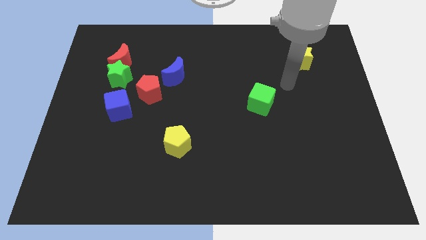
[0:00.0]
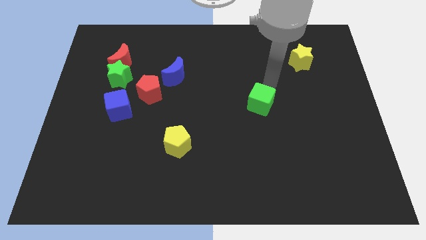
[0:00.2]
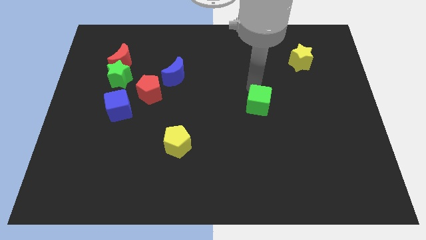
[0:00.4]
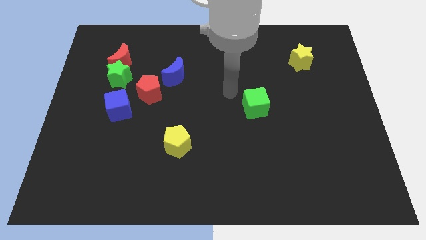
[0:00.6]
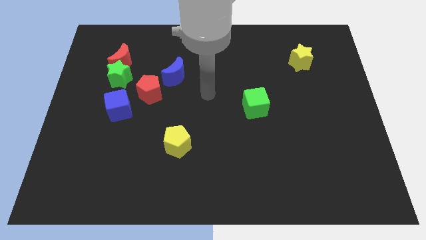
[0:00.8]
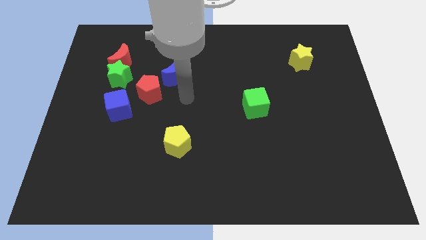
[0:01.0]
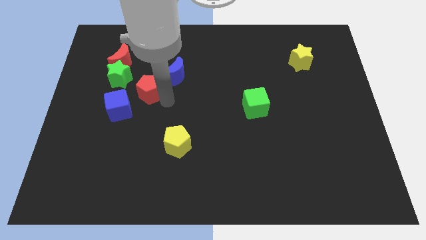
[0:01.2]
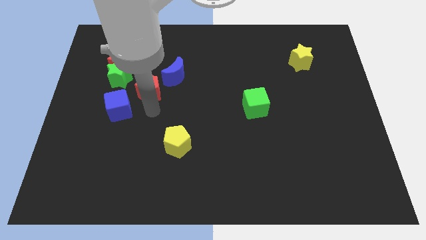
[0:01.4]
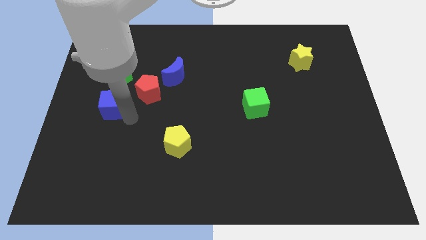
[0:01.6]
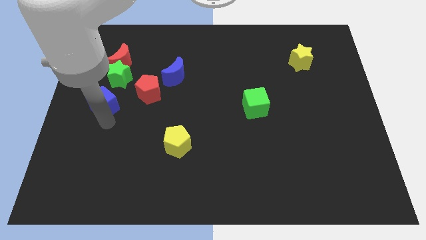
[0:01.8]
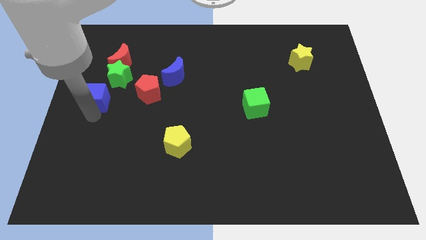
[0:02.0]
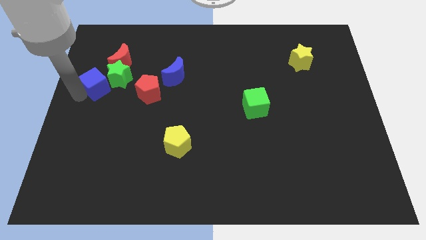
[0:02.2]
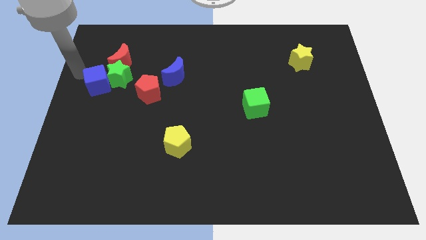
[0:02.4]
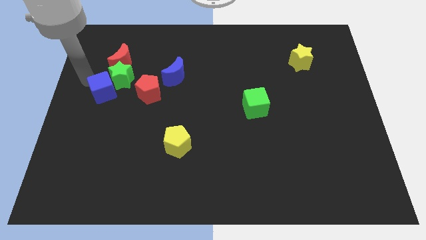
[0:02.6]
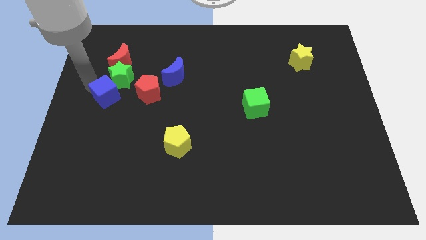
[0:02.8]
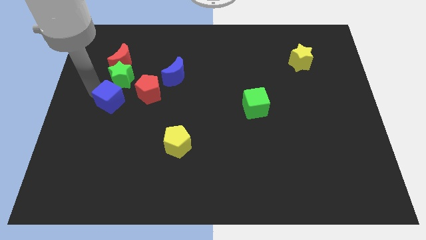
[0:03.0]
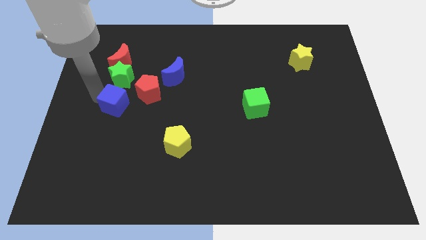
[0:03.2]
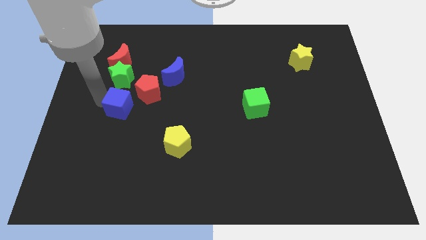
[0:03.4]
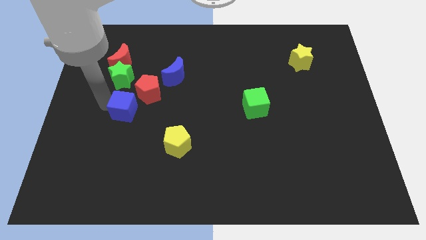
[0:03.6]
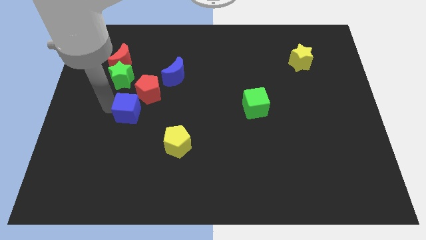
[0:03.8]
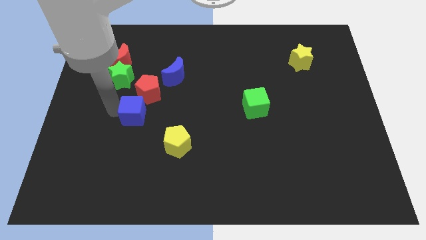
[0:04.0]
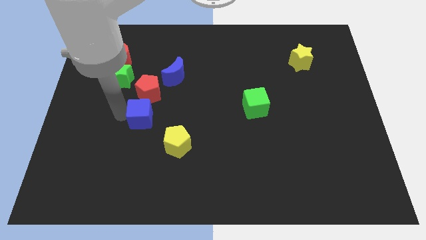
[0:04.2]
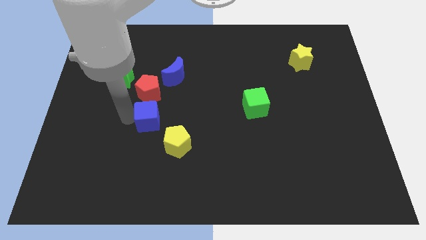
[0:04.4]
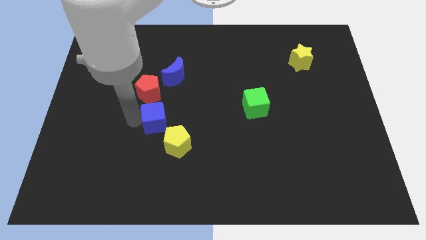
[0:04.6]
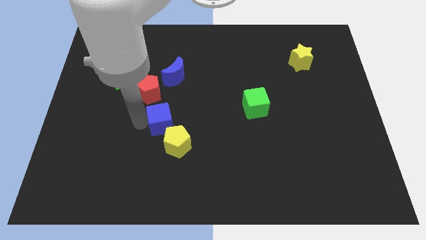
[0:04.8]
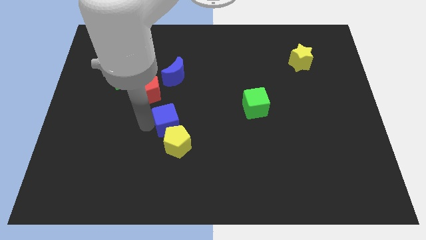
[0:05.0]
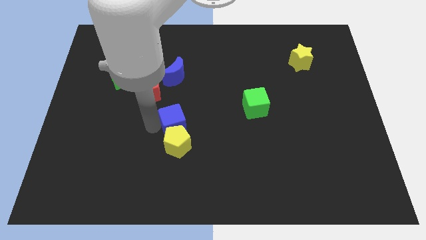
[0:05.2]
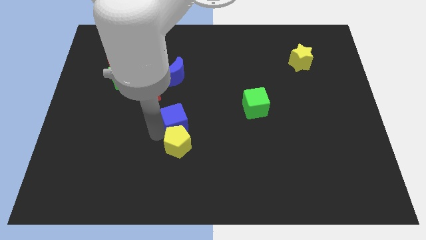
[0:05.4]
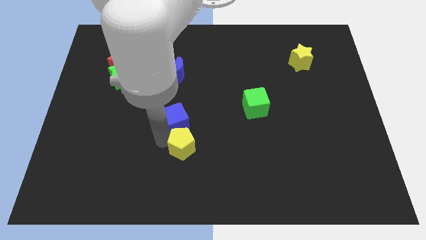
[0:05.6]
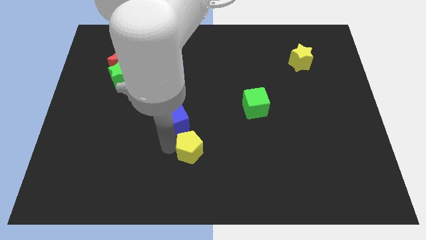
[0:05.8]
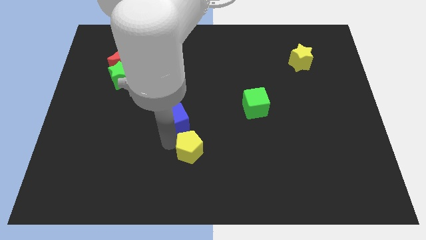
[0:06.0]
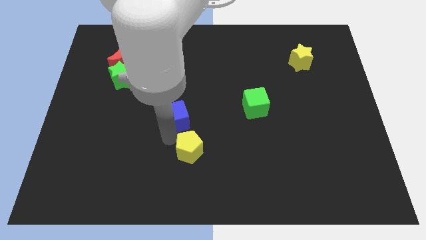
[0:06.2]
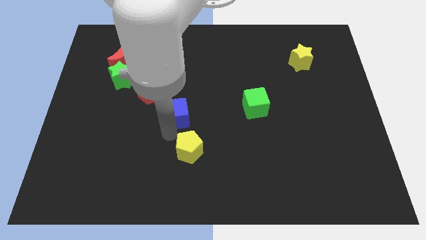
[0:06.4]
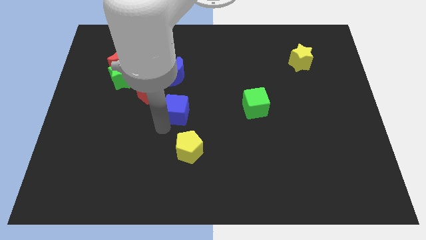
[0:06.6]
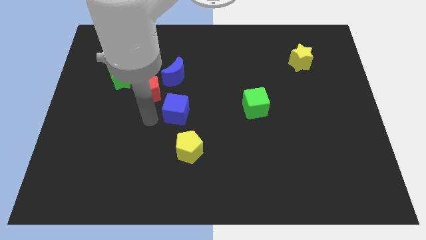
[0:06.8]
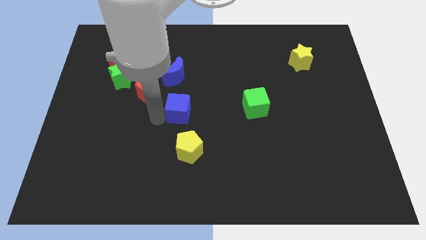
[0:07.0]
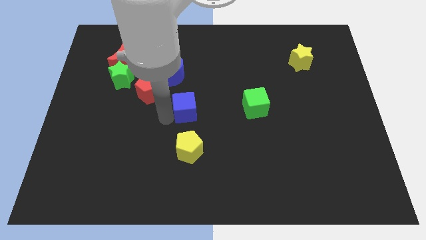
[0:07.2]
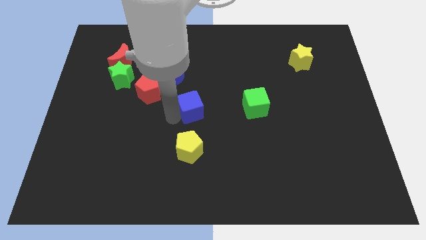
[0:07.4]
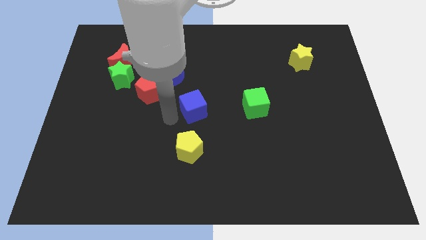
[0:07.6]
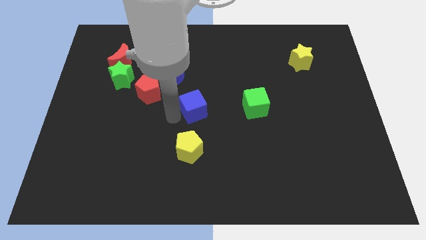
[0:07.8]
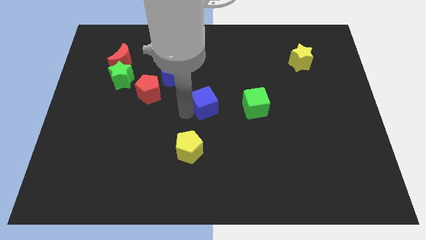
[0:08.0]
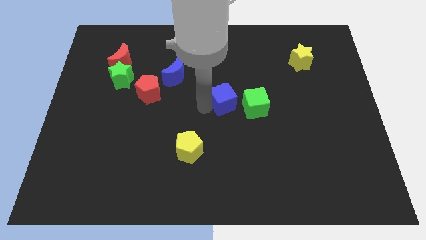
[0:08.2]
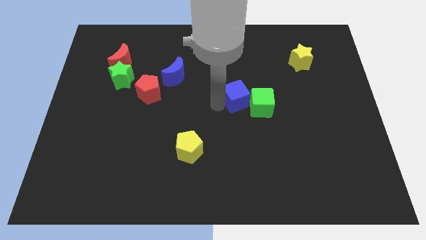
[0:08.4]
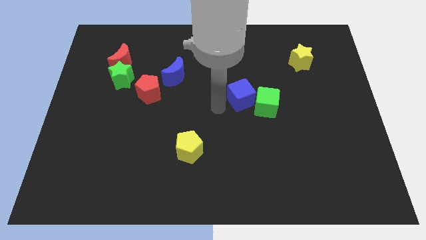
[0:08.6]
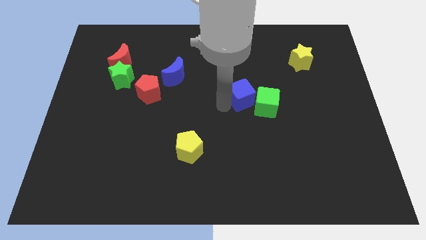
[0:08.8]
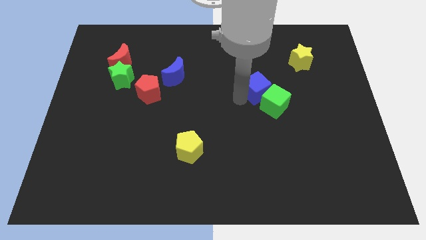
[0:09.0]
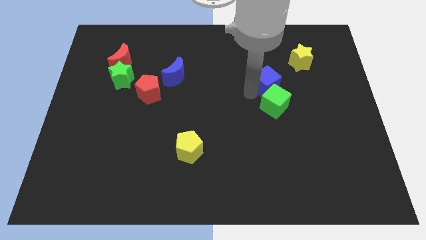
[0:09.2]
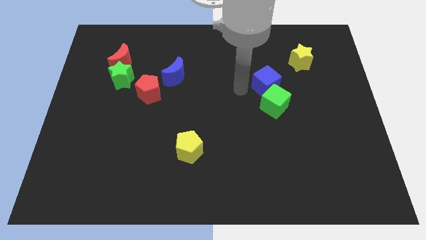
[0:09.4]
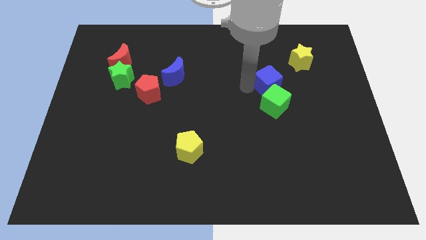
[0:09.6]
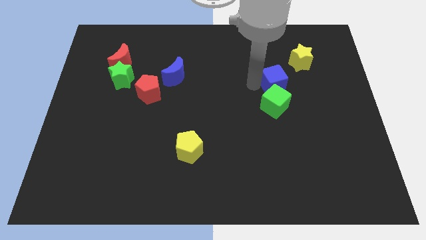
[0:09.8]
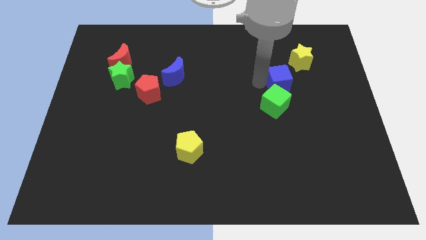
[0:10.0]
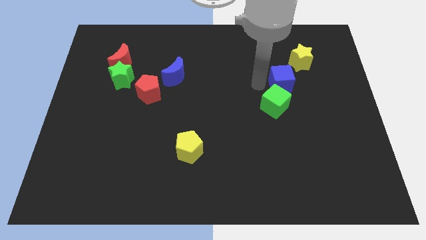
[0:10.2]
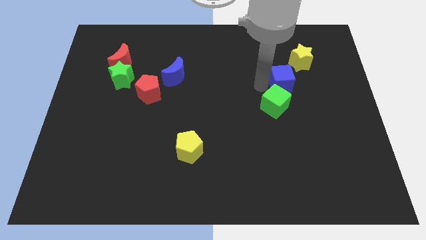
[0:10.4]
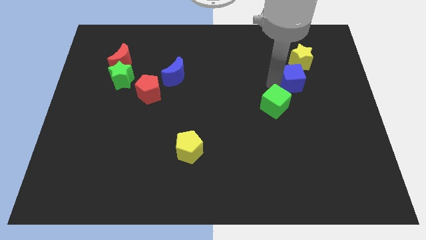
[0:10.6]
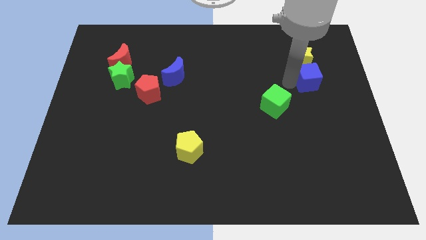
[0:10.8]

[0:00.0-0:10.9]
slide the blue cube to the bottom right of the yellow star

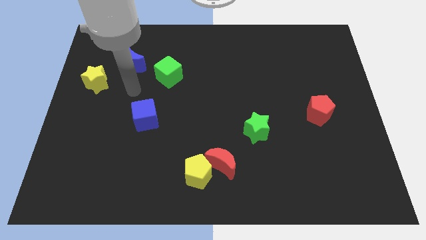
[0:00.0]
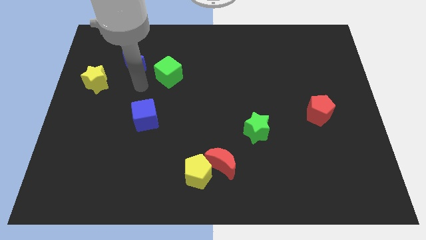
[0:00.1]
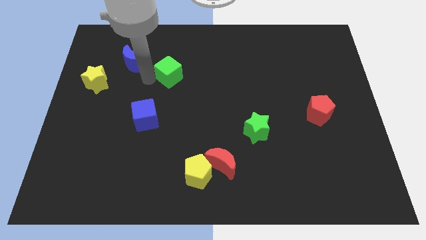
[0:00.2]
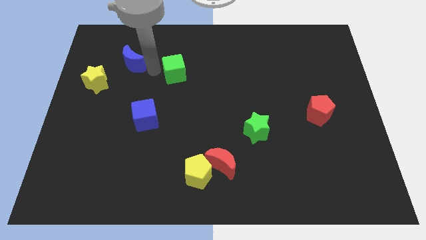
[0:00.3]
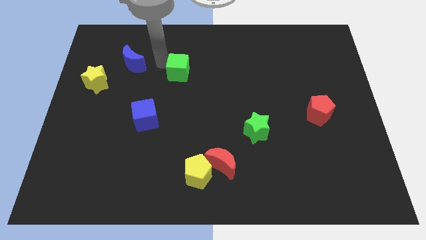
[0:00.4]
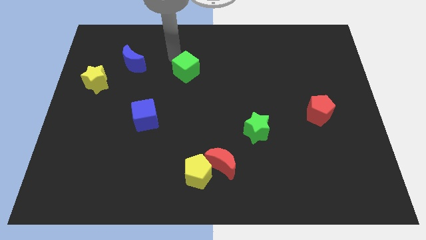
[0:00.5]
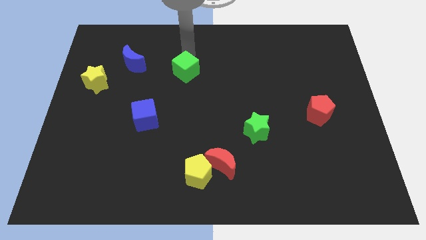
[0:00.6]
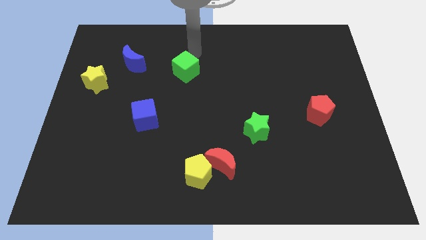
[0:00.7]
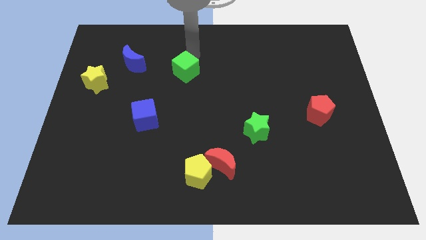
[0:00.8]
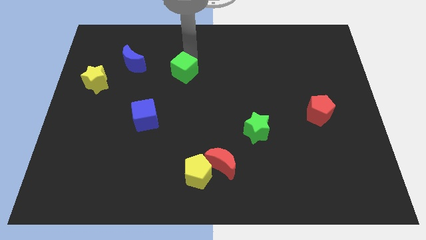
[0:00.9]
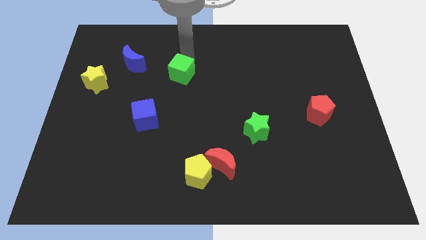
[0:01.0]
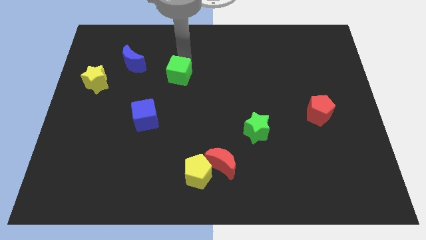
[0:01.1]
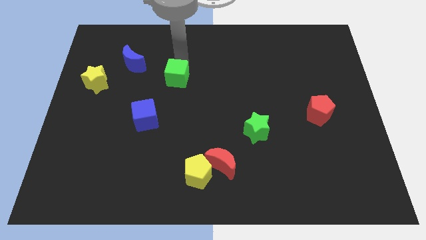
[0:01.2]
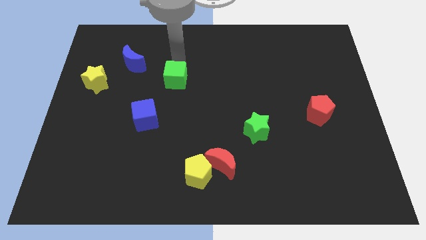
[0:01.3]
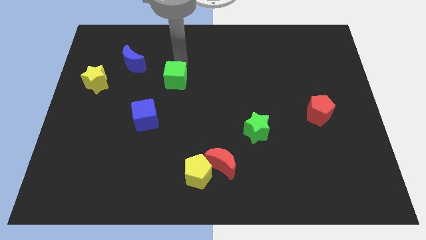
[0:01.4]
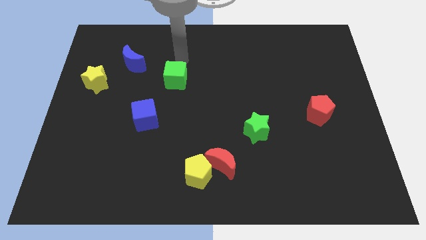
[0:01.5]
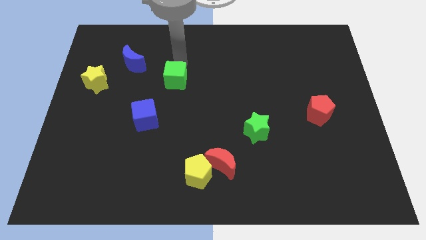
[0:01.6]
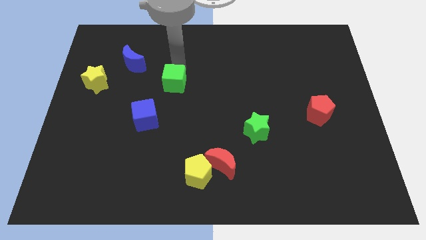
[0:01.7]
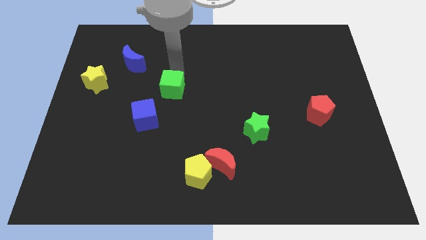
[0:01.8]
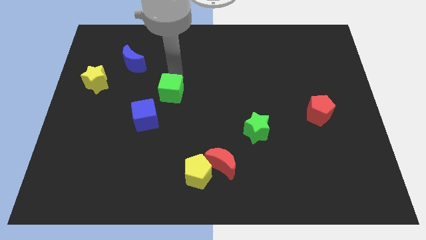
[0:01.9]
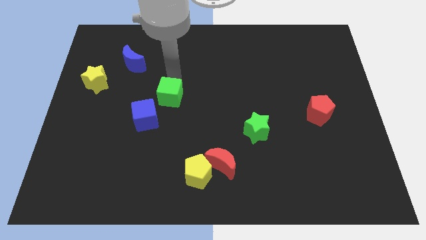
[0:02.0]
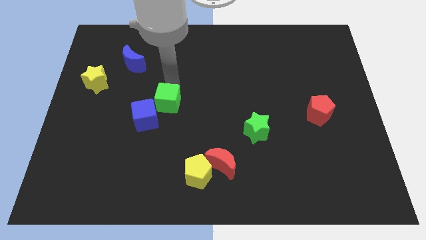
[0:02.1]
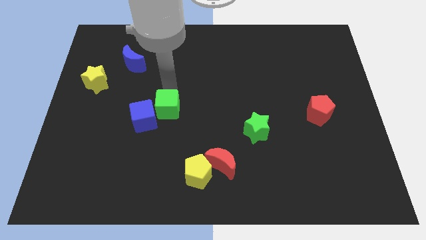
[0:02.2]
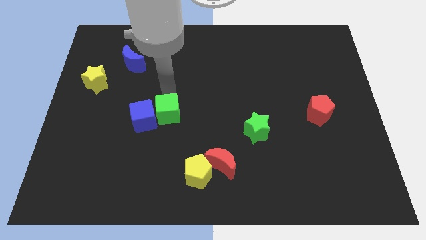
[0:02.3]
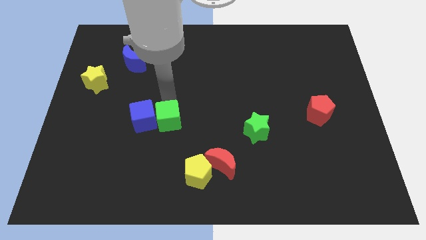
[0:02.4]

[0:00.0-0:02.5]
push the green cube diagonally down and to the right of the blue cube

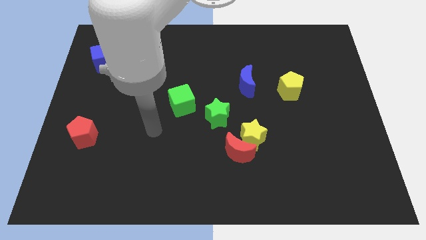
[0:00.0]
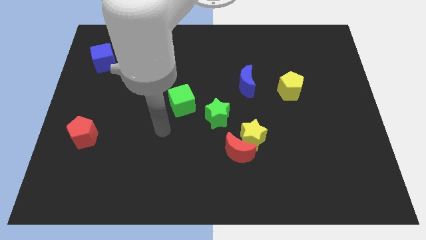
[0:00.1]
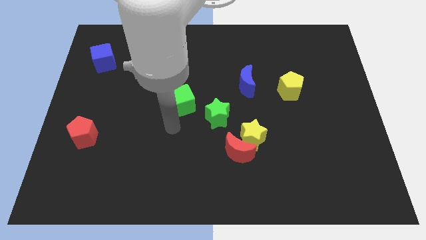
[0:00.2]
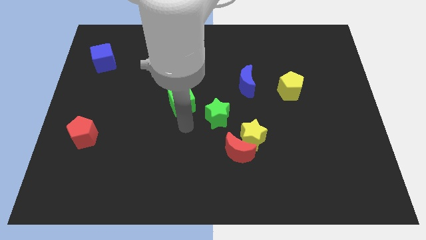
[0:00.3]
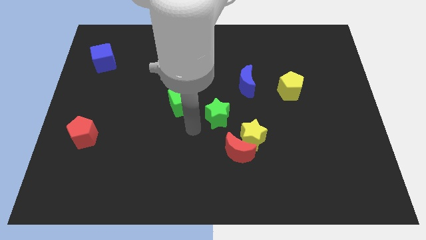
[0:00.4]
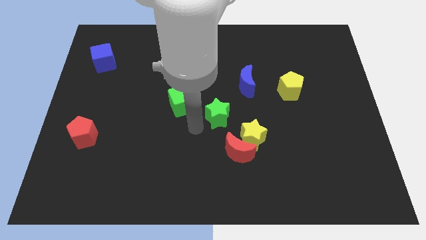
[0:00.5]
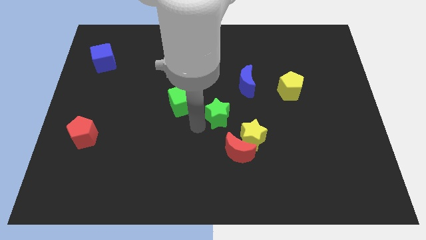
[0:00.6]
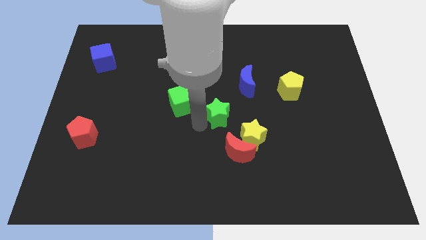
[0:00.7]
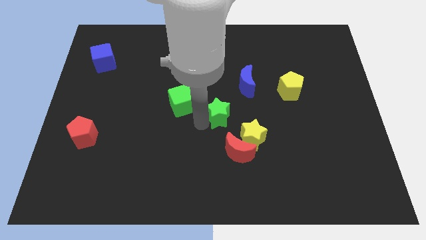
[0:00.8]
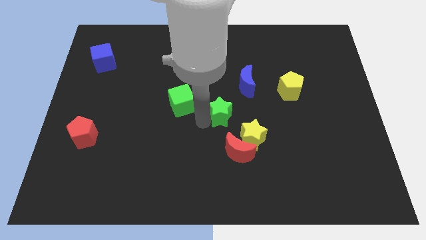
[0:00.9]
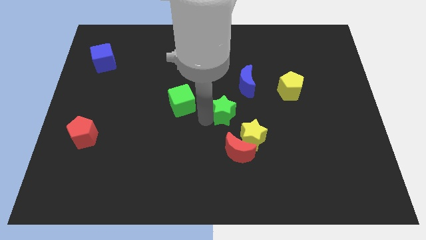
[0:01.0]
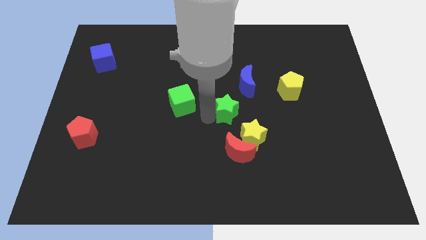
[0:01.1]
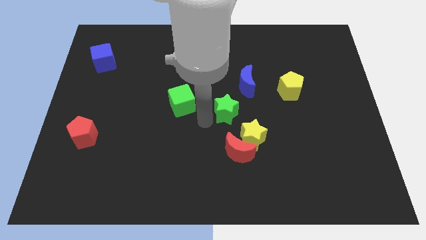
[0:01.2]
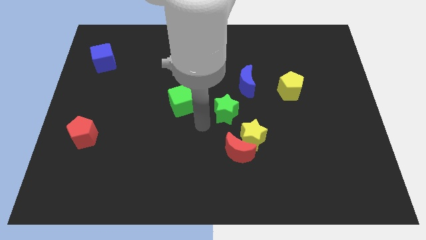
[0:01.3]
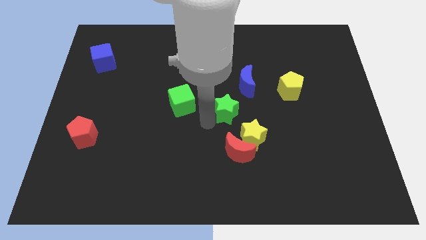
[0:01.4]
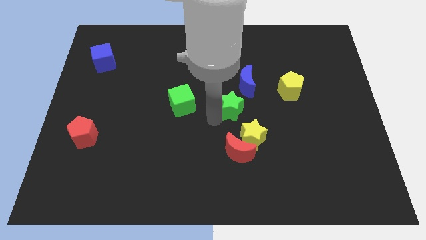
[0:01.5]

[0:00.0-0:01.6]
move the green star to the top of the yellow star
